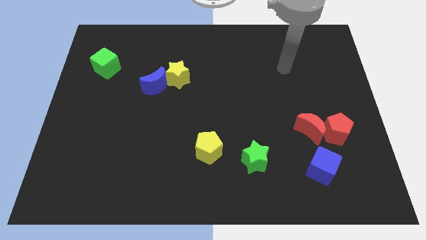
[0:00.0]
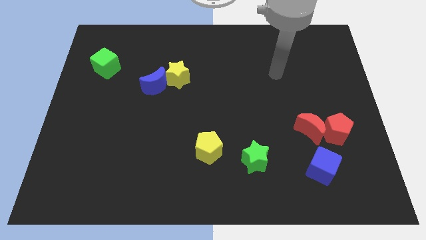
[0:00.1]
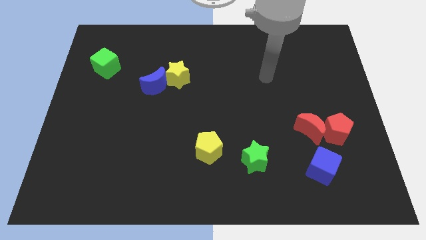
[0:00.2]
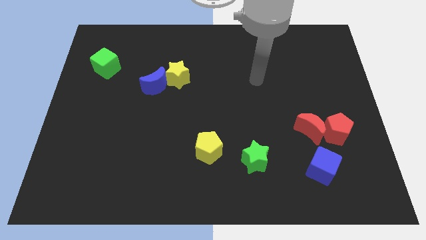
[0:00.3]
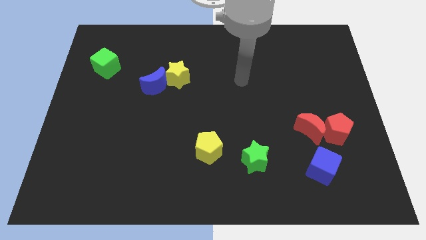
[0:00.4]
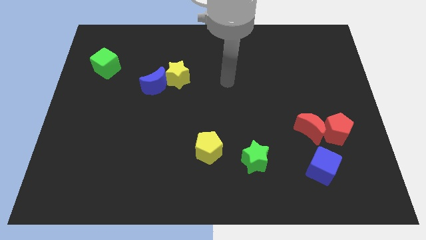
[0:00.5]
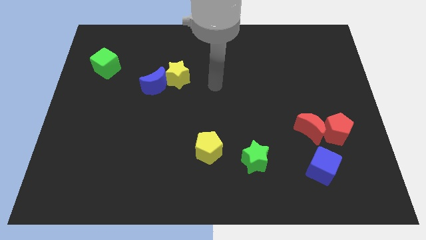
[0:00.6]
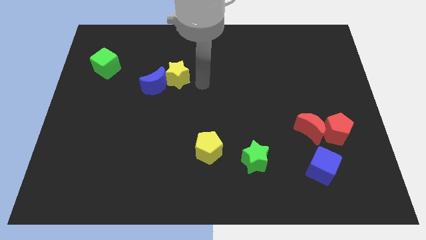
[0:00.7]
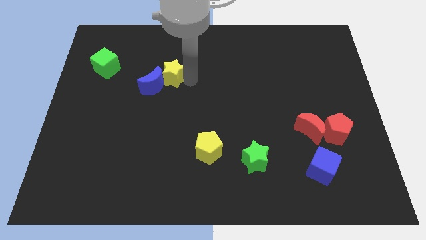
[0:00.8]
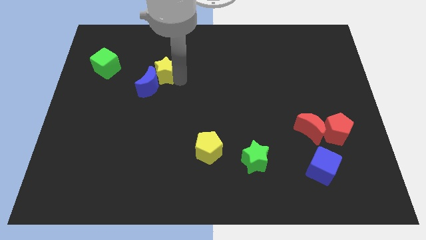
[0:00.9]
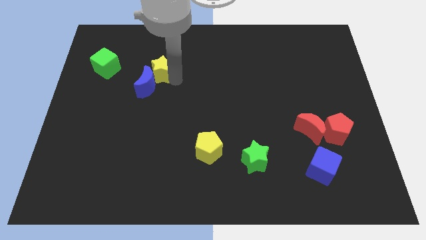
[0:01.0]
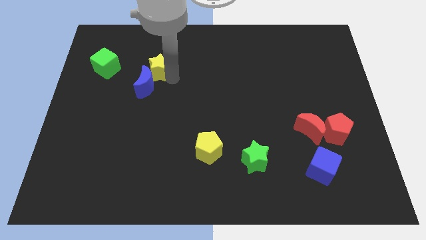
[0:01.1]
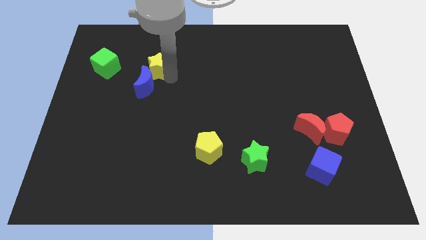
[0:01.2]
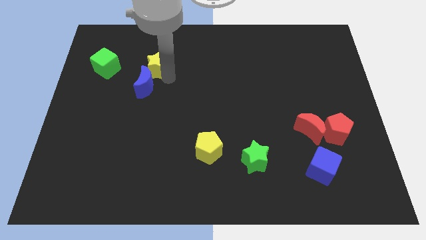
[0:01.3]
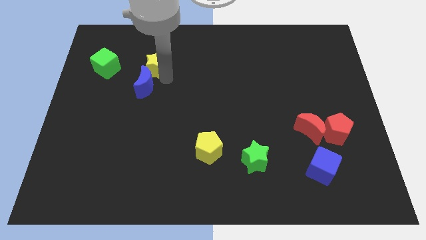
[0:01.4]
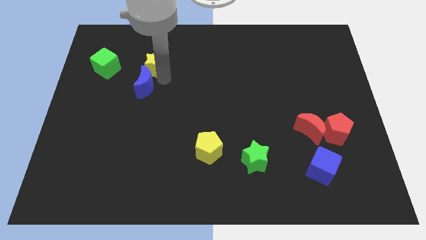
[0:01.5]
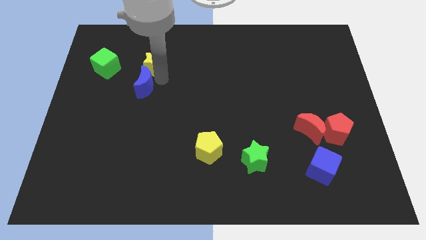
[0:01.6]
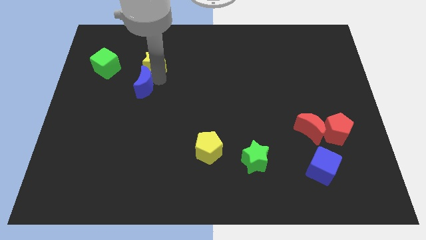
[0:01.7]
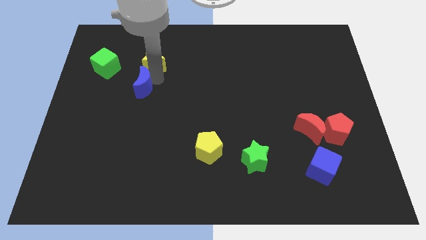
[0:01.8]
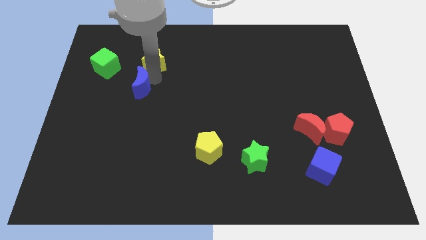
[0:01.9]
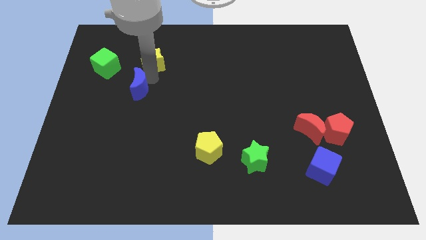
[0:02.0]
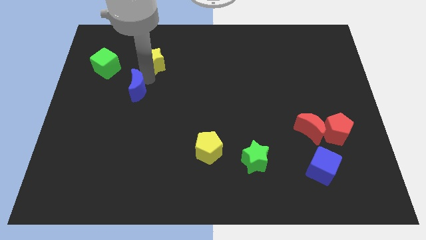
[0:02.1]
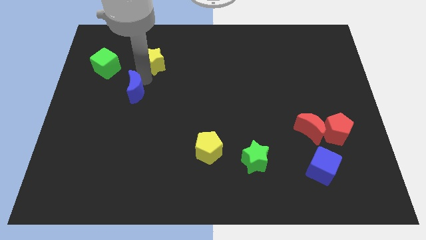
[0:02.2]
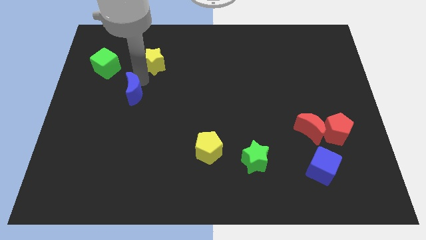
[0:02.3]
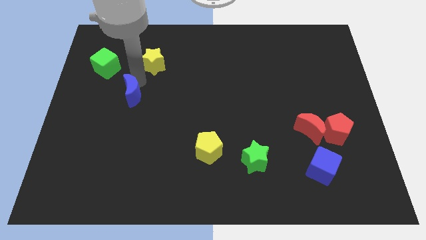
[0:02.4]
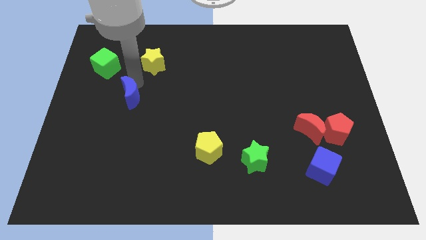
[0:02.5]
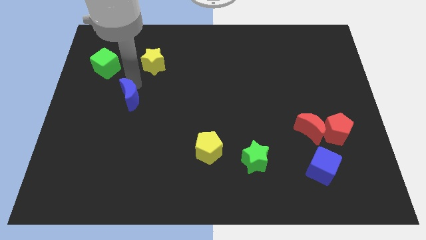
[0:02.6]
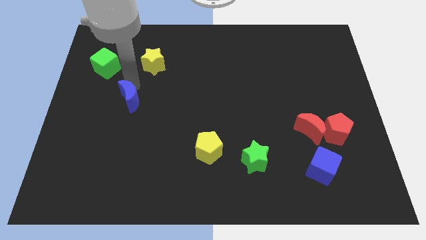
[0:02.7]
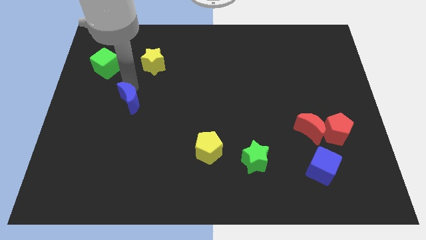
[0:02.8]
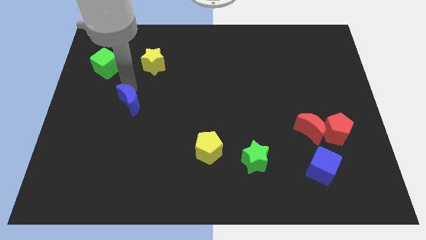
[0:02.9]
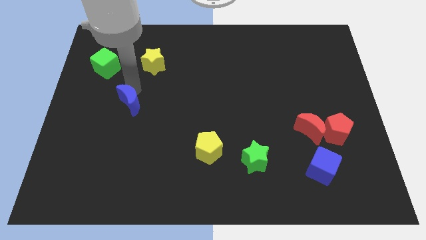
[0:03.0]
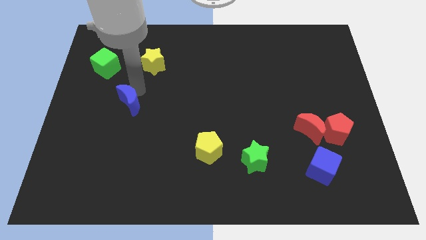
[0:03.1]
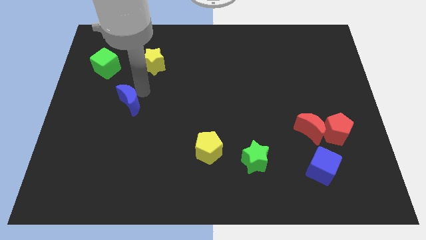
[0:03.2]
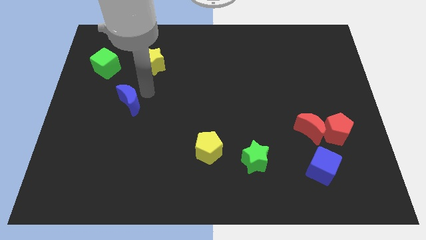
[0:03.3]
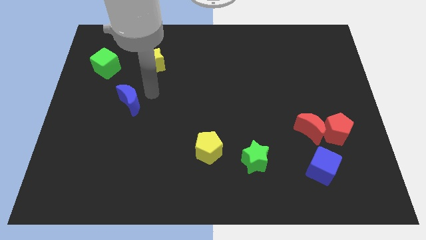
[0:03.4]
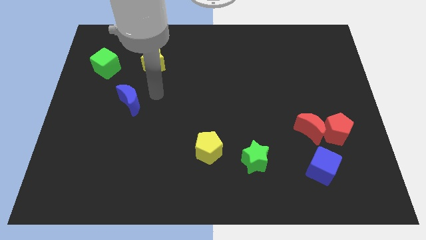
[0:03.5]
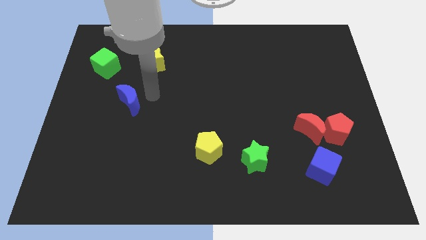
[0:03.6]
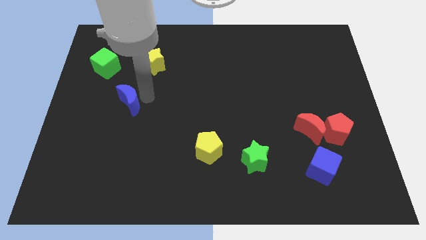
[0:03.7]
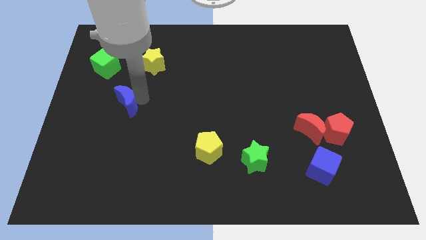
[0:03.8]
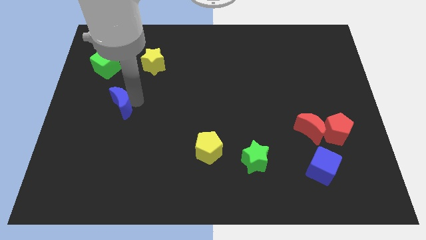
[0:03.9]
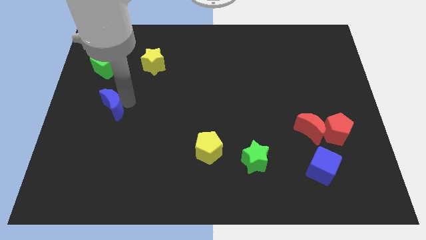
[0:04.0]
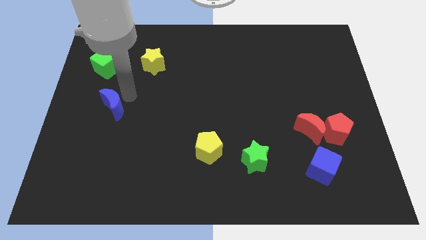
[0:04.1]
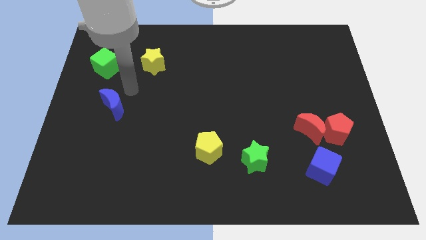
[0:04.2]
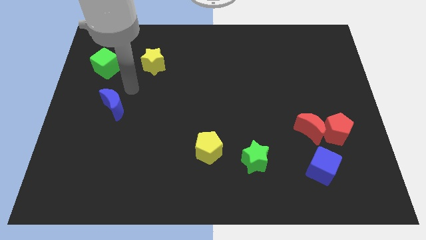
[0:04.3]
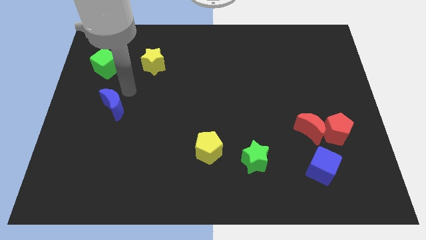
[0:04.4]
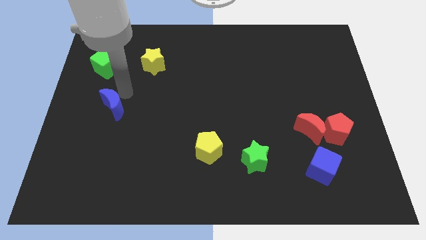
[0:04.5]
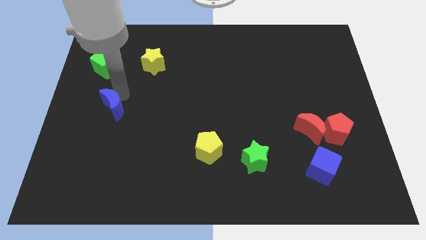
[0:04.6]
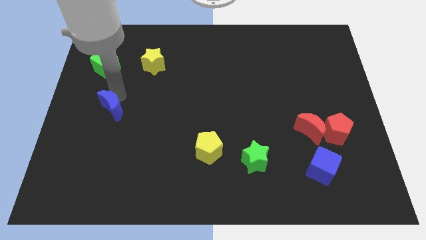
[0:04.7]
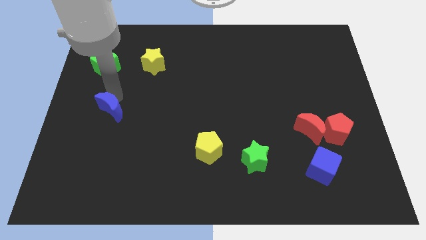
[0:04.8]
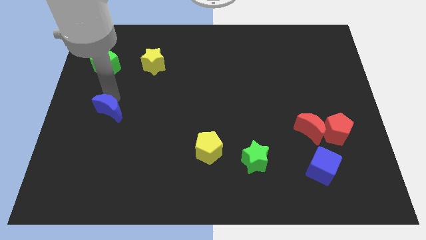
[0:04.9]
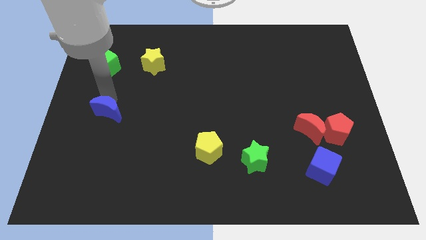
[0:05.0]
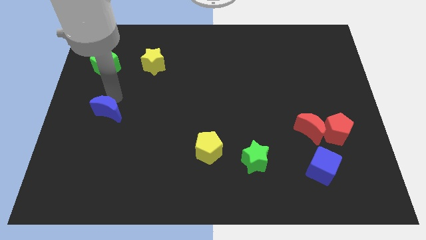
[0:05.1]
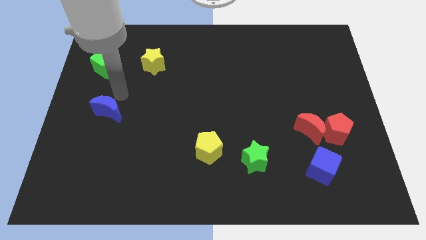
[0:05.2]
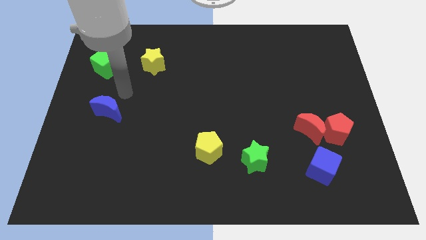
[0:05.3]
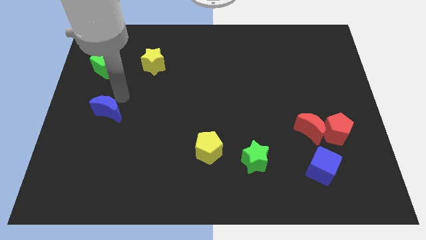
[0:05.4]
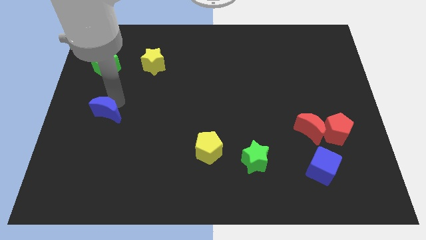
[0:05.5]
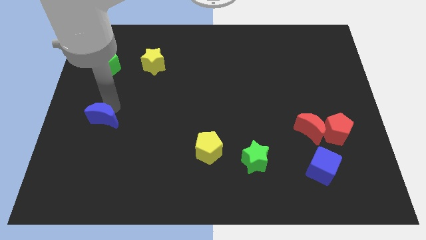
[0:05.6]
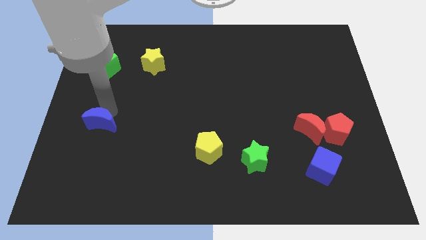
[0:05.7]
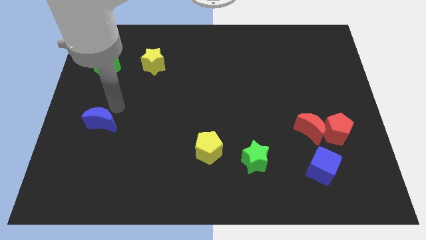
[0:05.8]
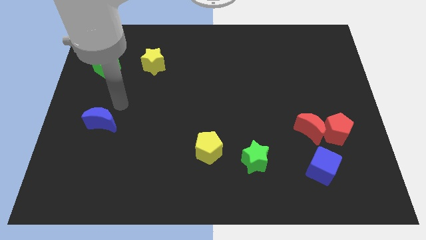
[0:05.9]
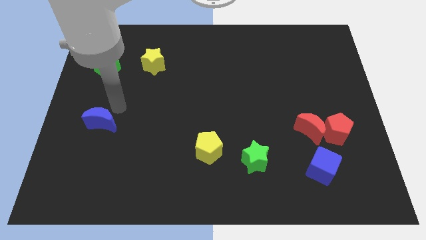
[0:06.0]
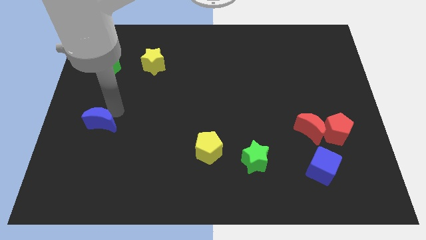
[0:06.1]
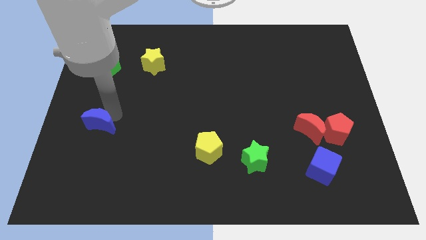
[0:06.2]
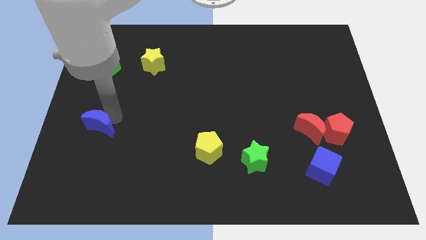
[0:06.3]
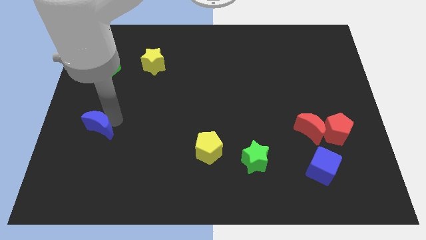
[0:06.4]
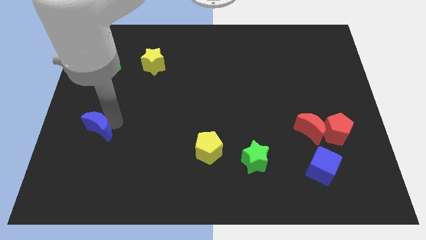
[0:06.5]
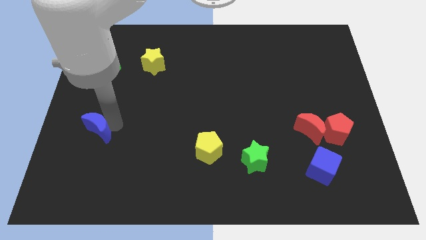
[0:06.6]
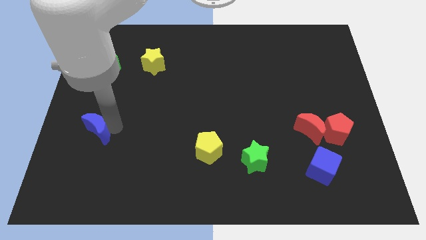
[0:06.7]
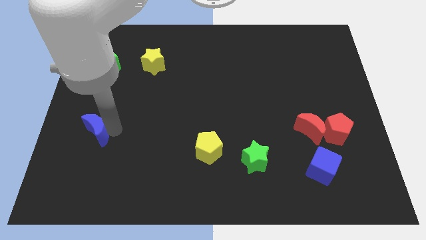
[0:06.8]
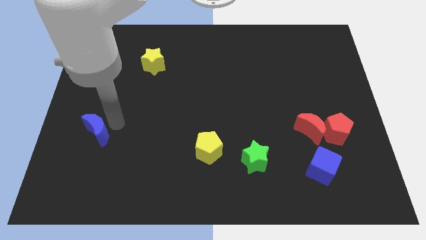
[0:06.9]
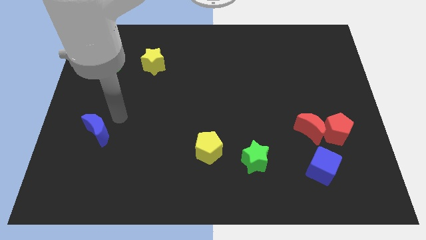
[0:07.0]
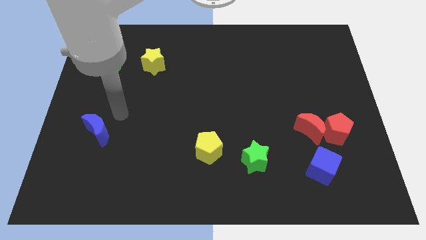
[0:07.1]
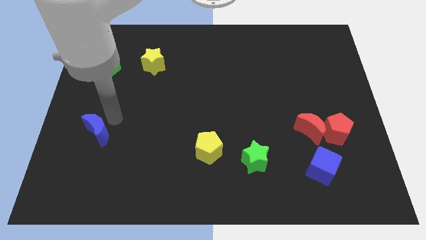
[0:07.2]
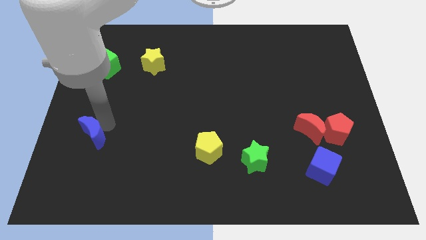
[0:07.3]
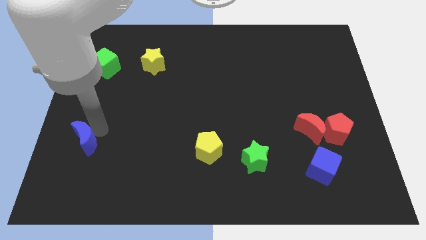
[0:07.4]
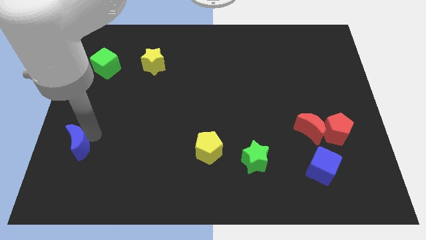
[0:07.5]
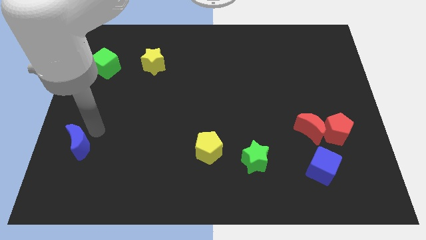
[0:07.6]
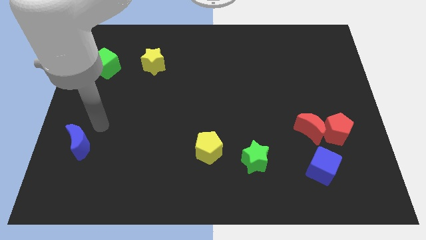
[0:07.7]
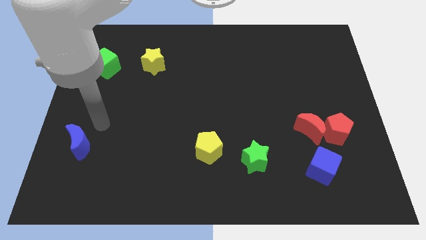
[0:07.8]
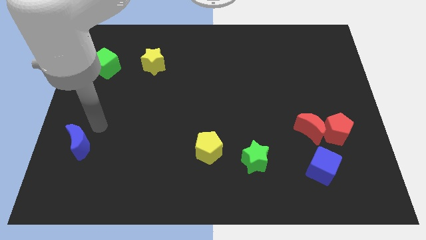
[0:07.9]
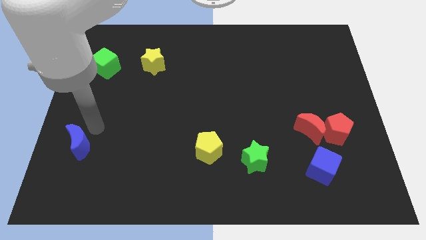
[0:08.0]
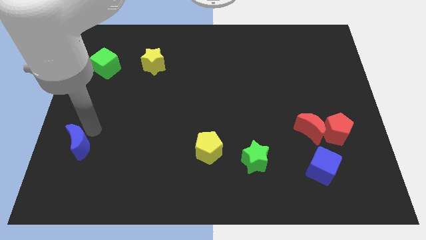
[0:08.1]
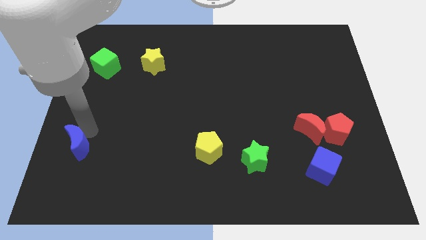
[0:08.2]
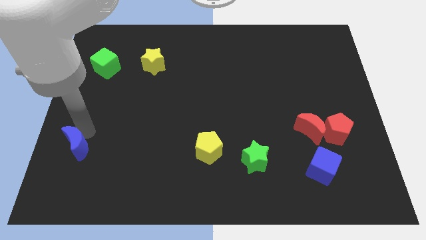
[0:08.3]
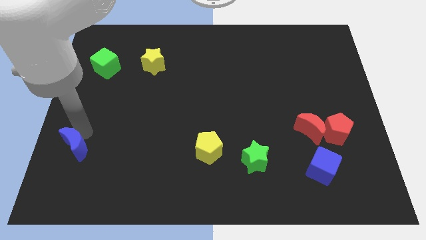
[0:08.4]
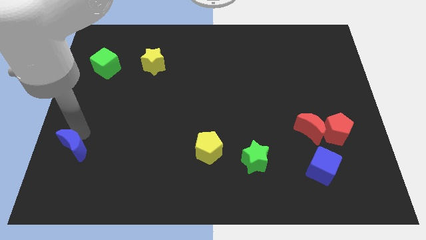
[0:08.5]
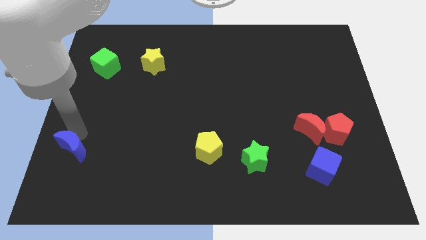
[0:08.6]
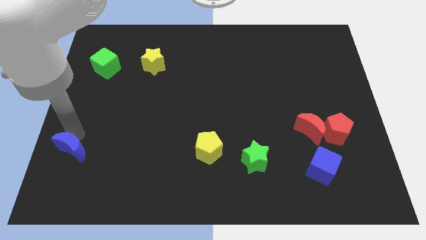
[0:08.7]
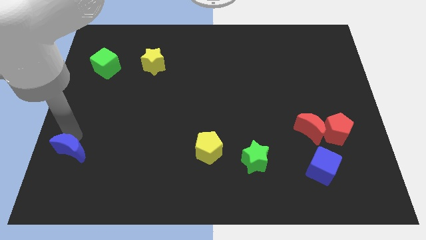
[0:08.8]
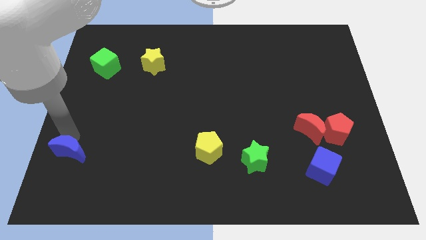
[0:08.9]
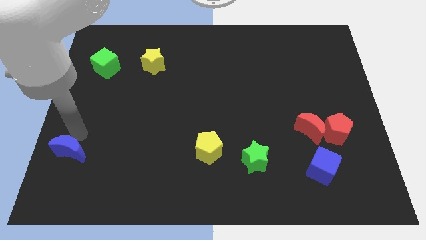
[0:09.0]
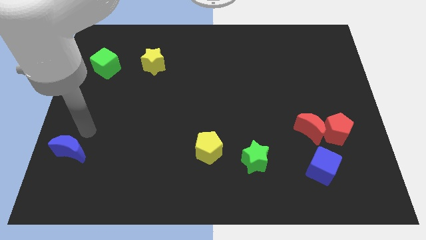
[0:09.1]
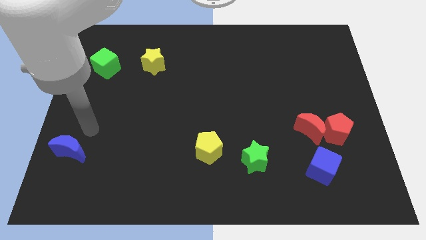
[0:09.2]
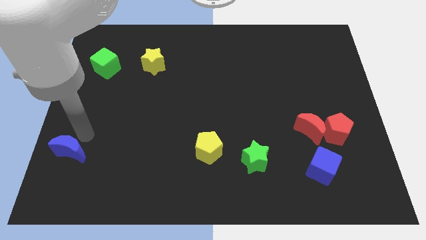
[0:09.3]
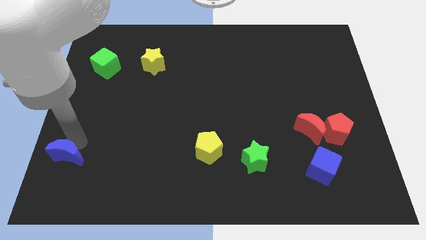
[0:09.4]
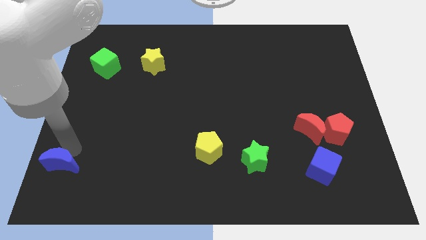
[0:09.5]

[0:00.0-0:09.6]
push the blue moon to the bottom left
